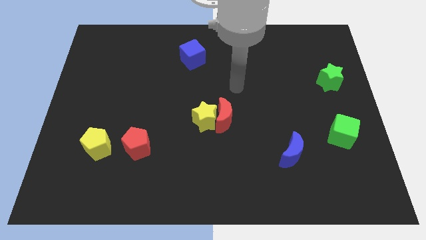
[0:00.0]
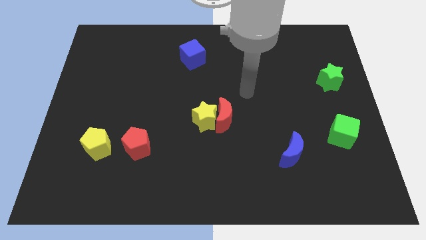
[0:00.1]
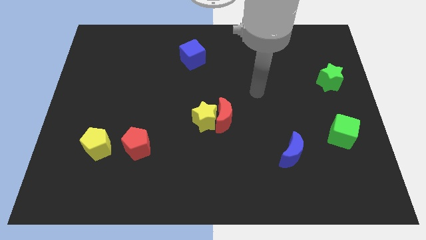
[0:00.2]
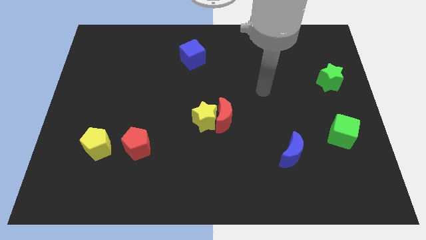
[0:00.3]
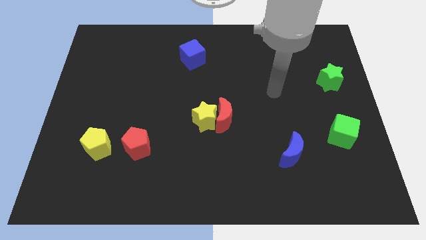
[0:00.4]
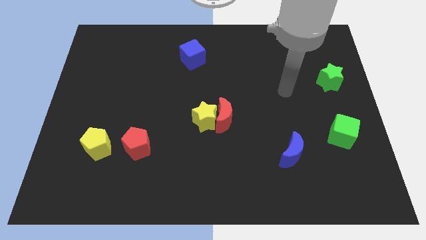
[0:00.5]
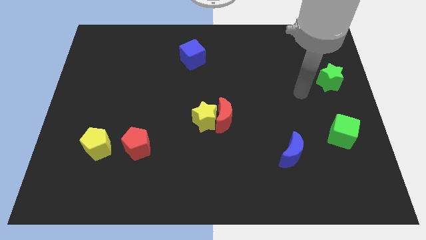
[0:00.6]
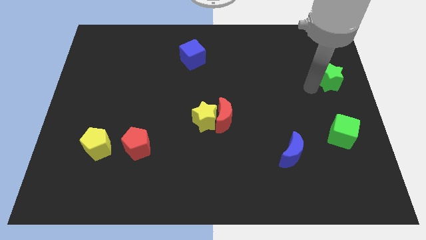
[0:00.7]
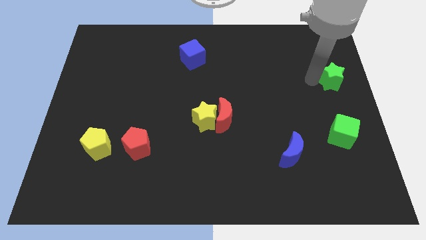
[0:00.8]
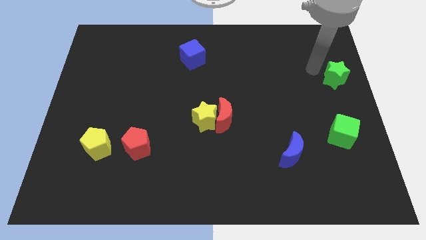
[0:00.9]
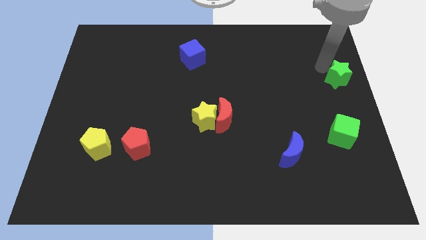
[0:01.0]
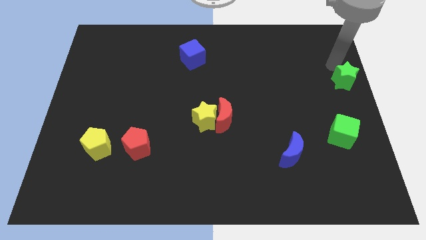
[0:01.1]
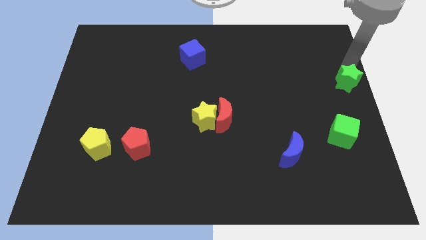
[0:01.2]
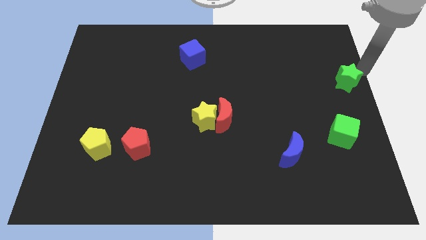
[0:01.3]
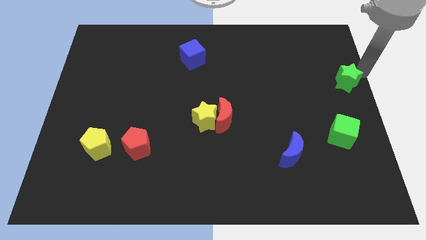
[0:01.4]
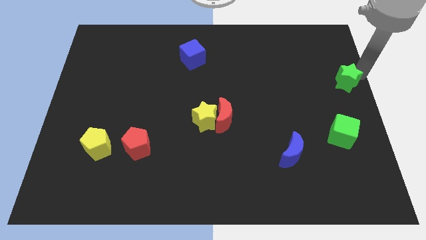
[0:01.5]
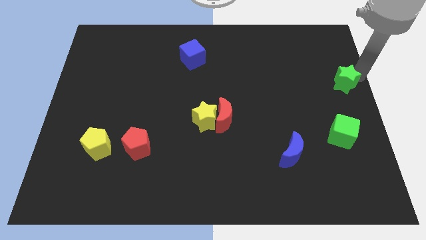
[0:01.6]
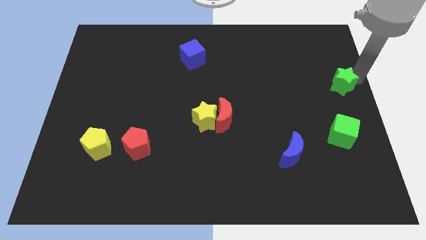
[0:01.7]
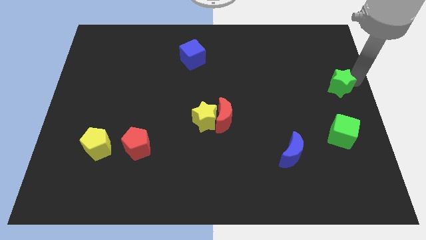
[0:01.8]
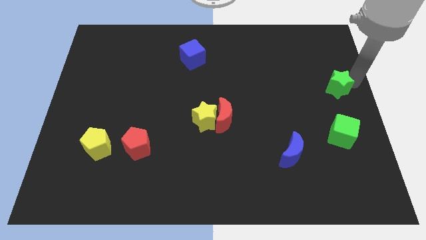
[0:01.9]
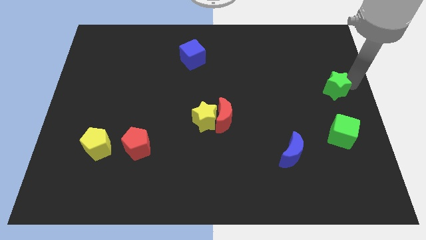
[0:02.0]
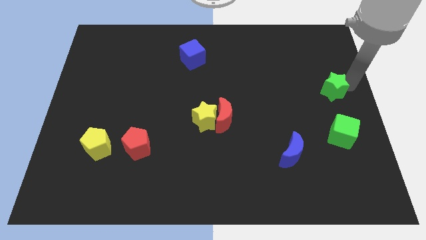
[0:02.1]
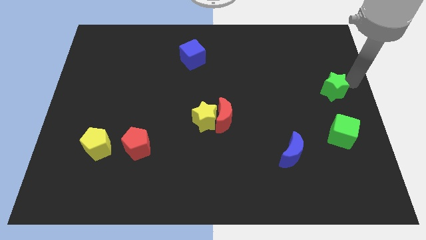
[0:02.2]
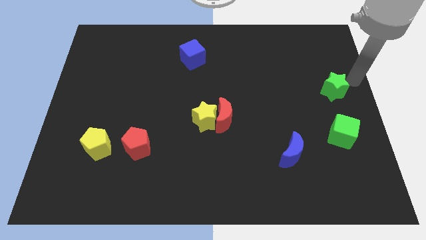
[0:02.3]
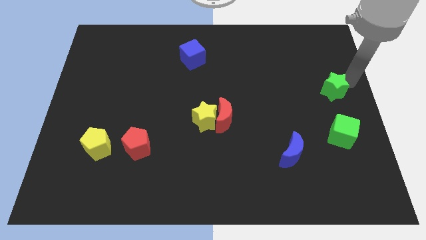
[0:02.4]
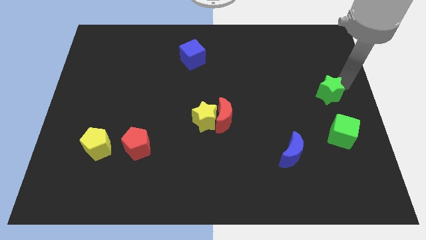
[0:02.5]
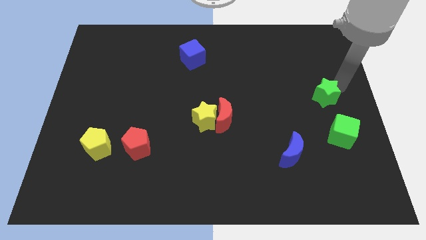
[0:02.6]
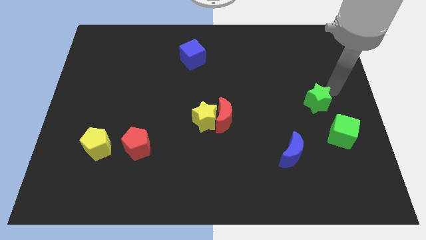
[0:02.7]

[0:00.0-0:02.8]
push the green star a little down and to the left

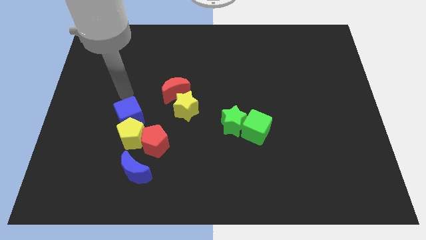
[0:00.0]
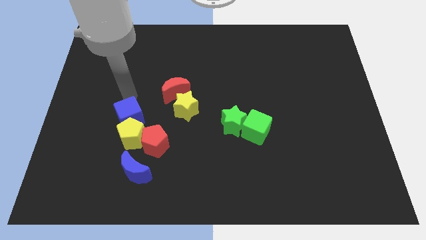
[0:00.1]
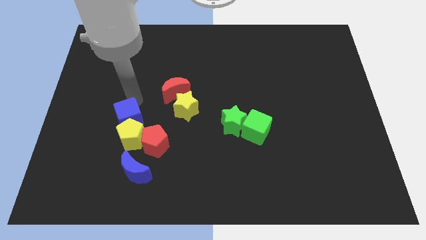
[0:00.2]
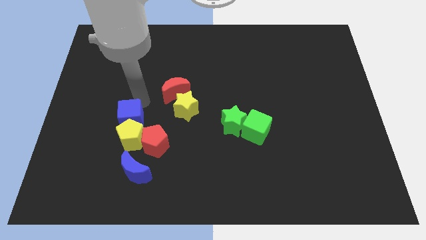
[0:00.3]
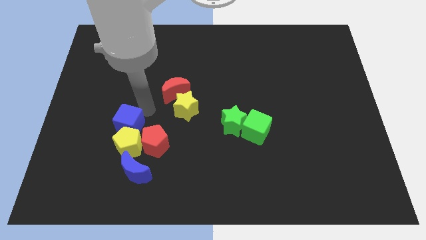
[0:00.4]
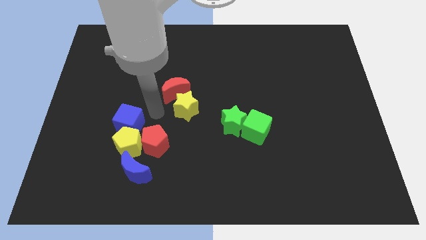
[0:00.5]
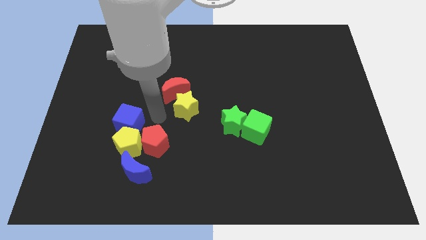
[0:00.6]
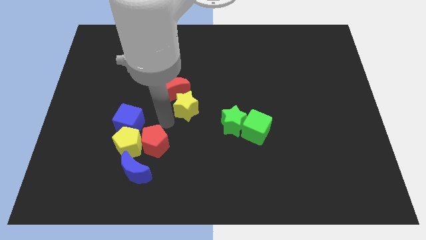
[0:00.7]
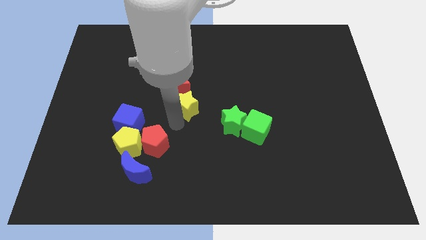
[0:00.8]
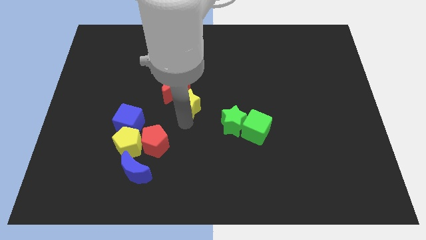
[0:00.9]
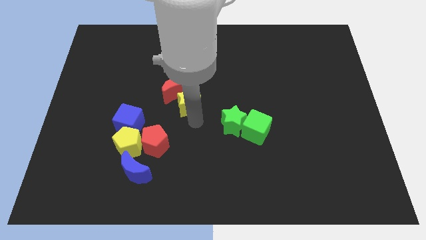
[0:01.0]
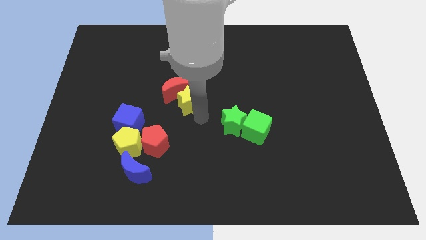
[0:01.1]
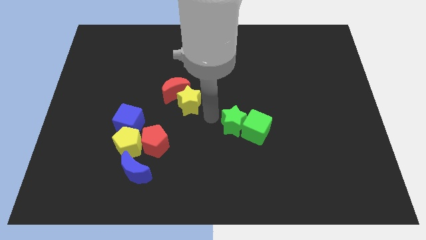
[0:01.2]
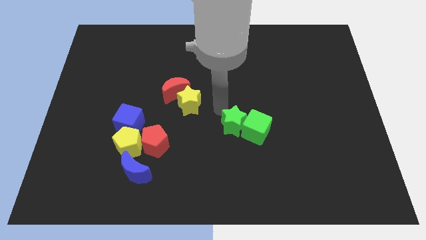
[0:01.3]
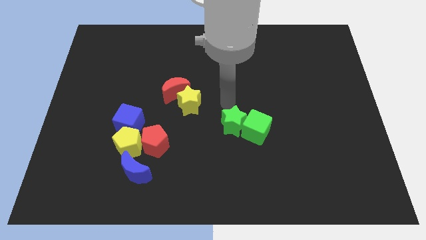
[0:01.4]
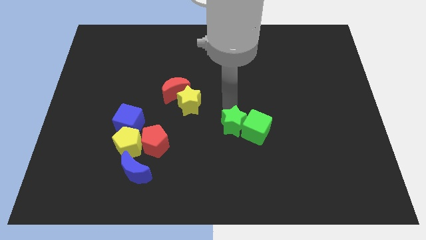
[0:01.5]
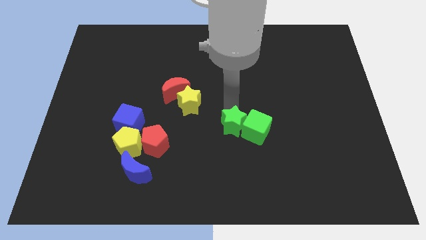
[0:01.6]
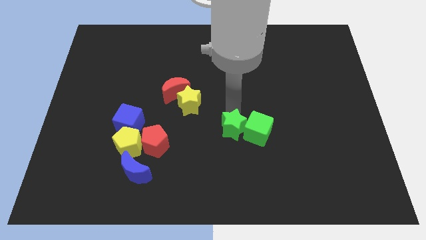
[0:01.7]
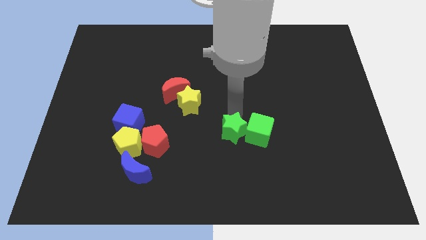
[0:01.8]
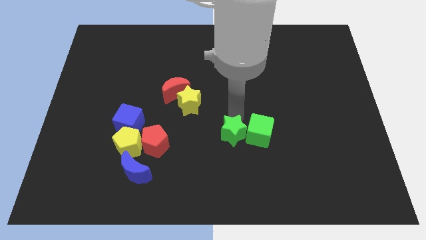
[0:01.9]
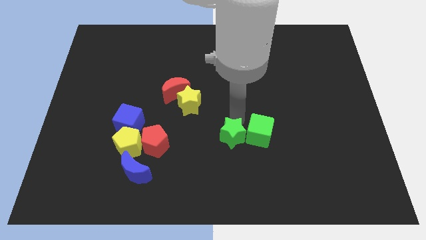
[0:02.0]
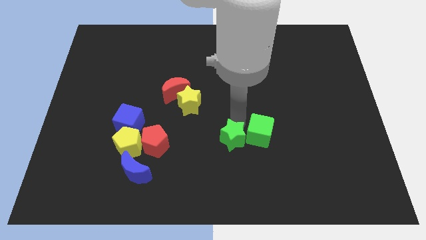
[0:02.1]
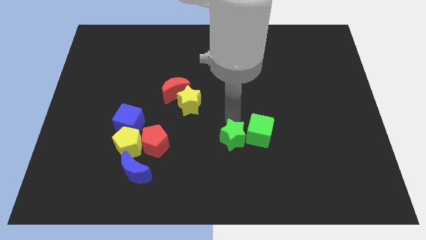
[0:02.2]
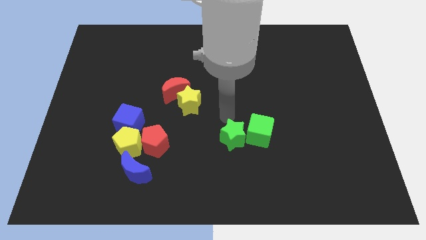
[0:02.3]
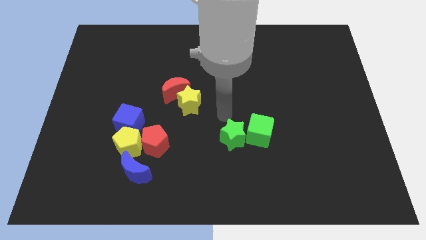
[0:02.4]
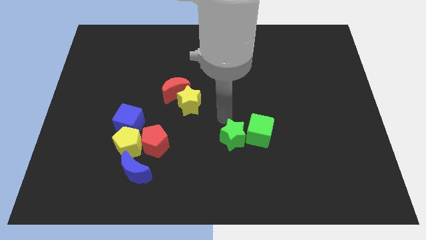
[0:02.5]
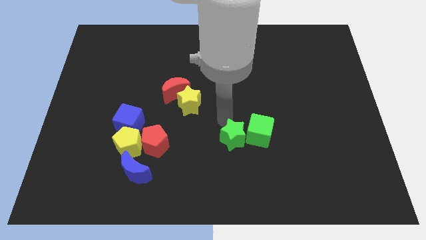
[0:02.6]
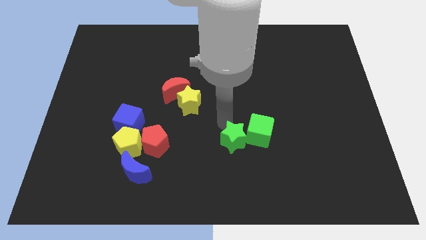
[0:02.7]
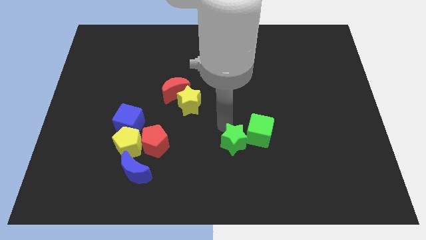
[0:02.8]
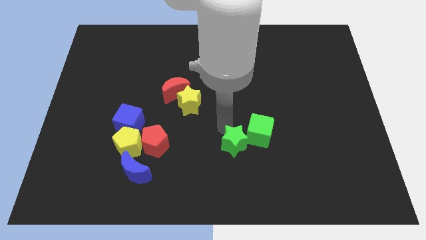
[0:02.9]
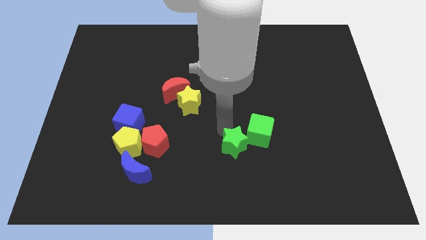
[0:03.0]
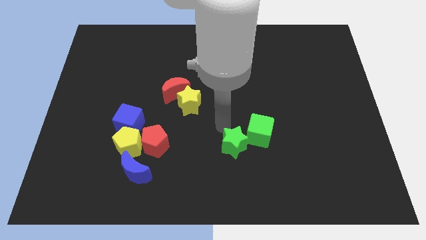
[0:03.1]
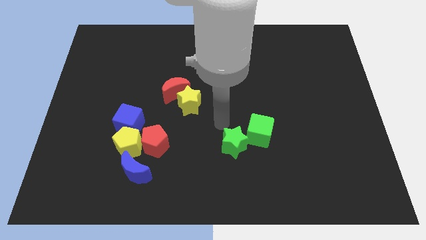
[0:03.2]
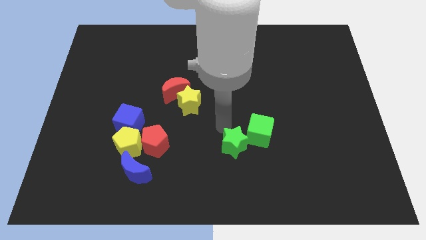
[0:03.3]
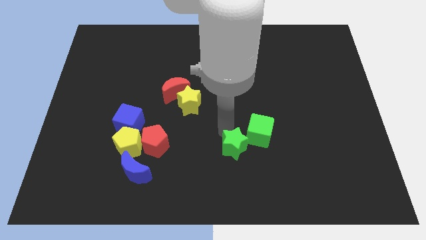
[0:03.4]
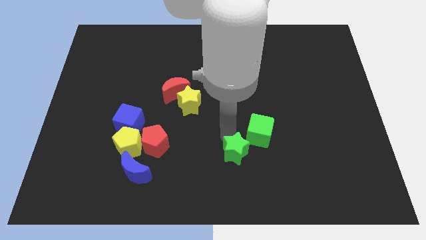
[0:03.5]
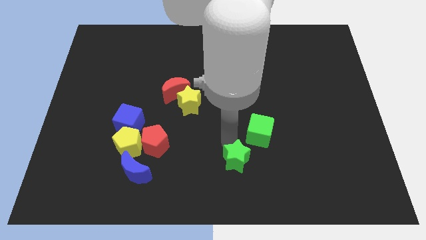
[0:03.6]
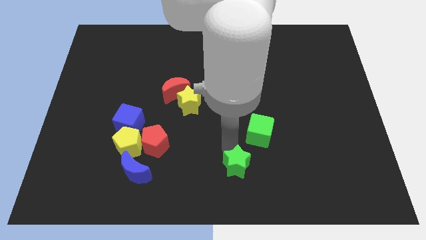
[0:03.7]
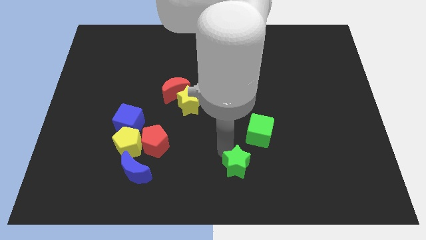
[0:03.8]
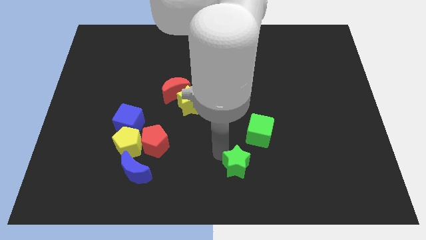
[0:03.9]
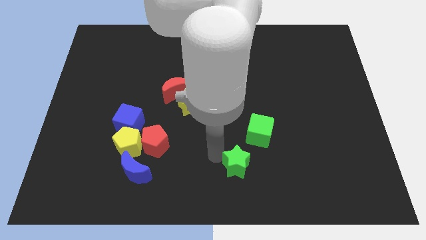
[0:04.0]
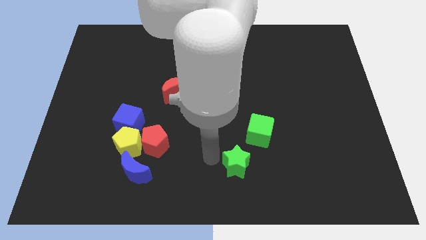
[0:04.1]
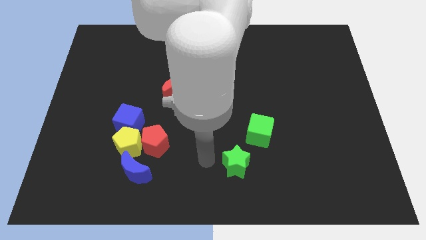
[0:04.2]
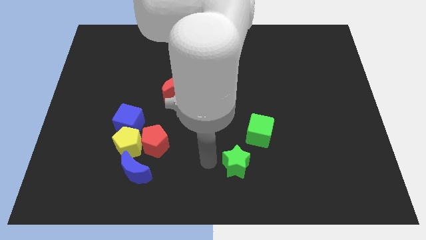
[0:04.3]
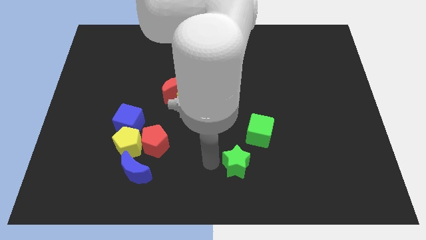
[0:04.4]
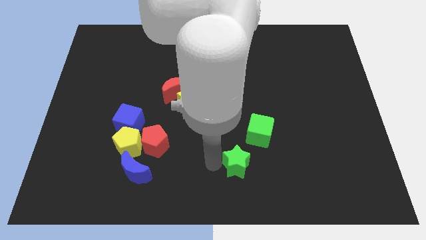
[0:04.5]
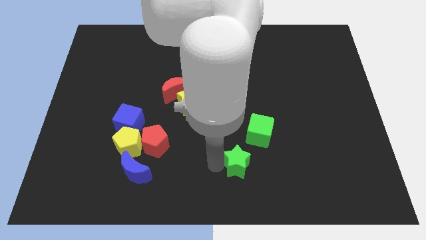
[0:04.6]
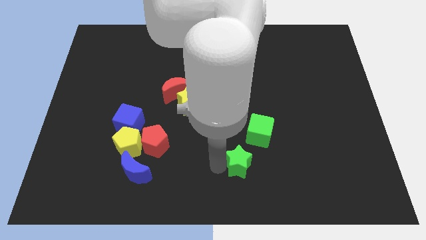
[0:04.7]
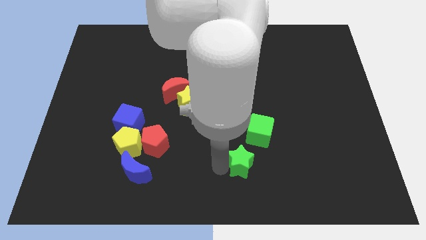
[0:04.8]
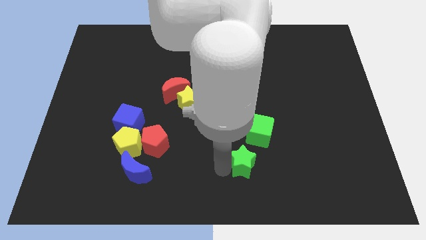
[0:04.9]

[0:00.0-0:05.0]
move the green star down and to the right diagonally a bit

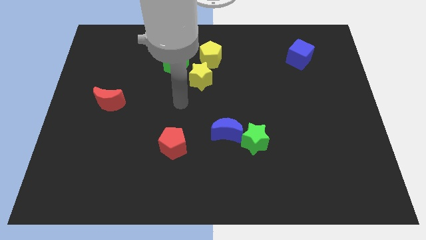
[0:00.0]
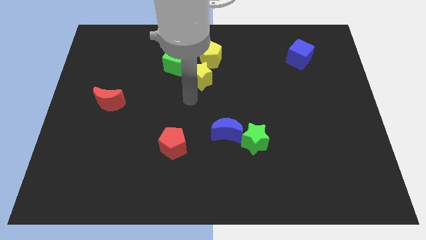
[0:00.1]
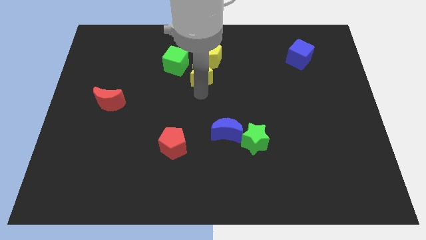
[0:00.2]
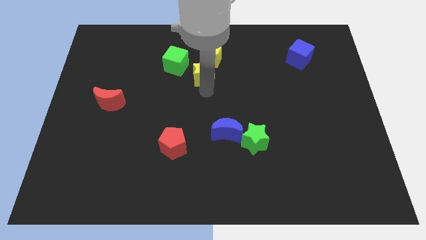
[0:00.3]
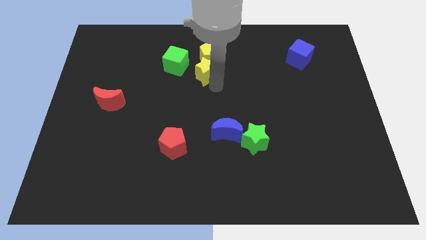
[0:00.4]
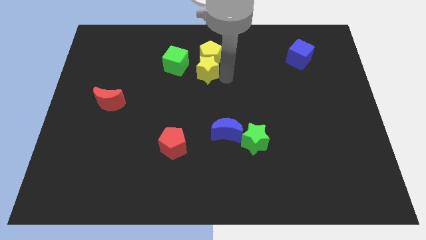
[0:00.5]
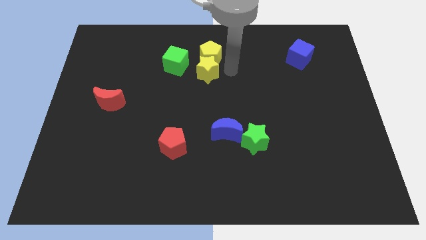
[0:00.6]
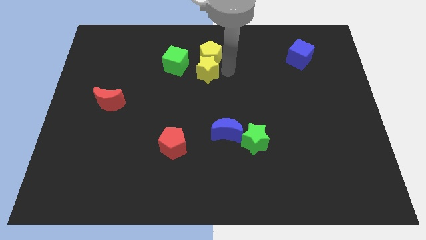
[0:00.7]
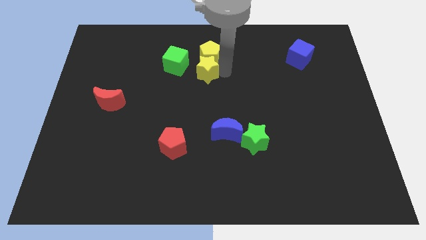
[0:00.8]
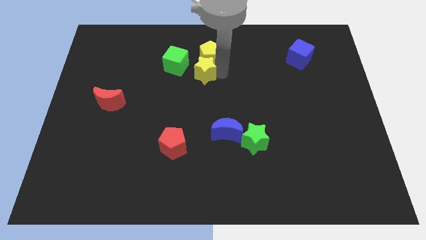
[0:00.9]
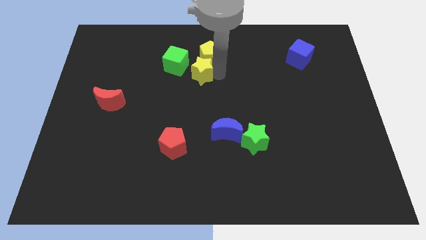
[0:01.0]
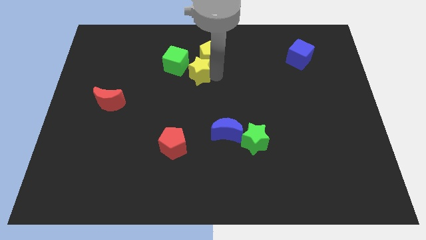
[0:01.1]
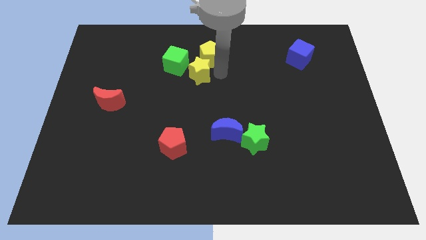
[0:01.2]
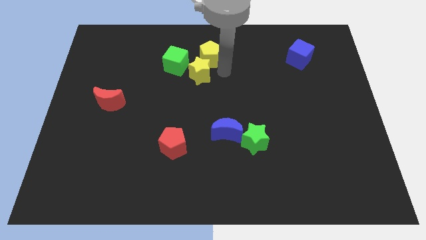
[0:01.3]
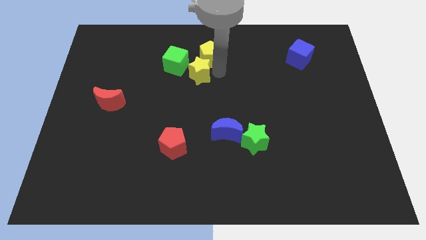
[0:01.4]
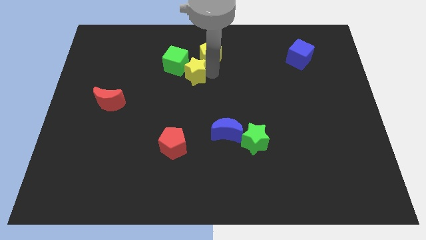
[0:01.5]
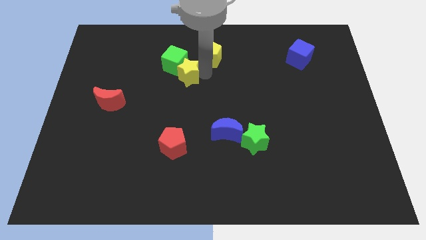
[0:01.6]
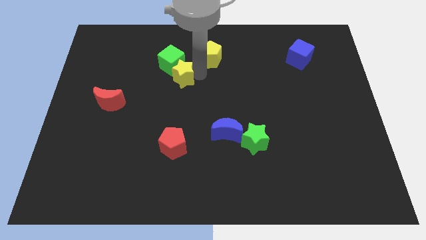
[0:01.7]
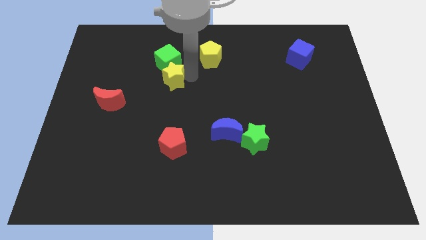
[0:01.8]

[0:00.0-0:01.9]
slightly push the yellow star to the left
